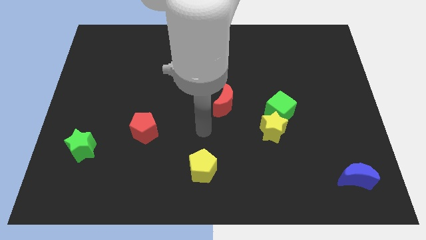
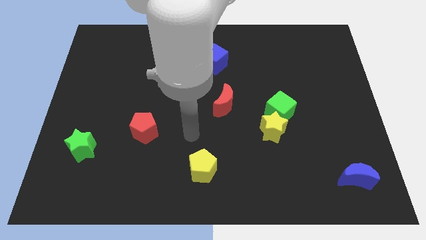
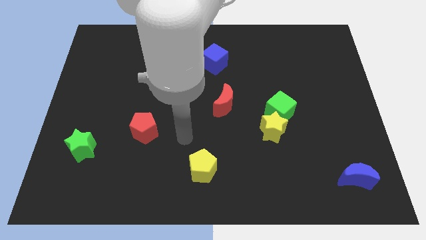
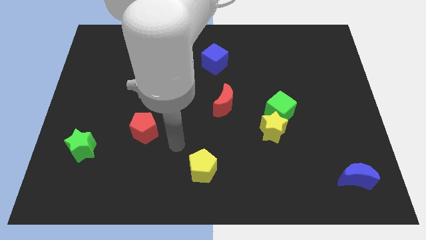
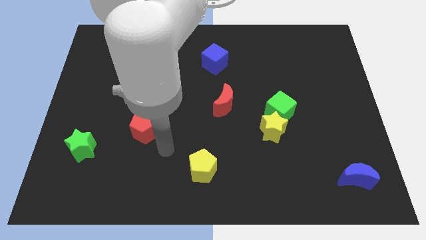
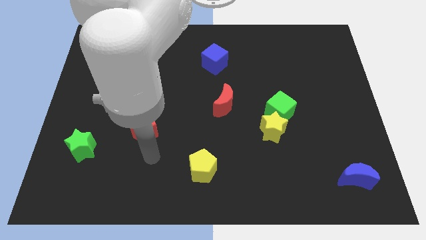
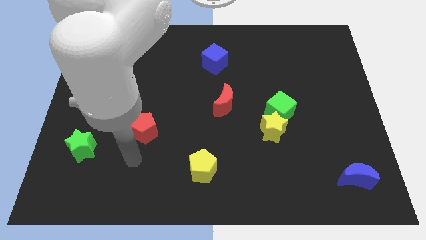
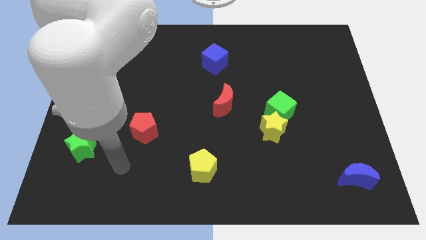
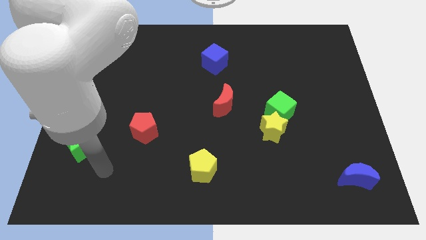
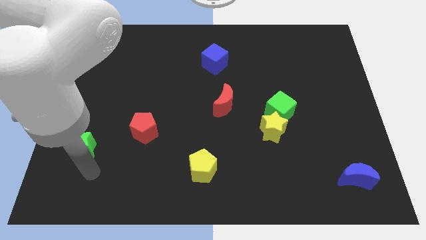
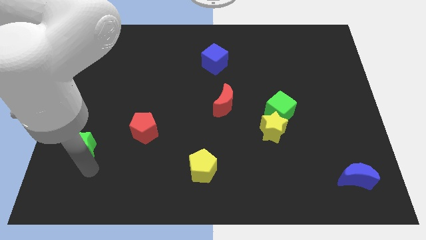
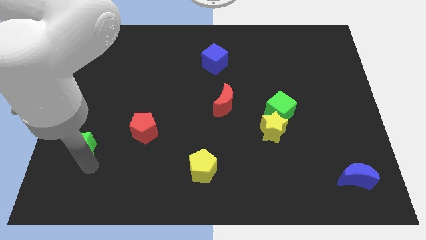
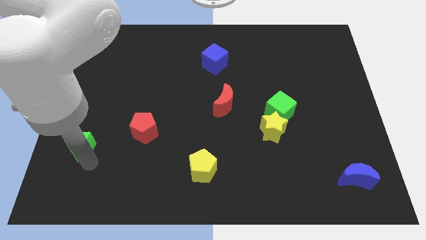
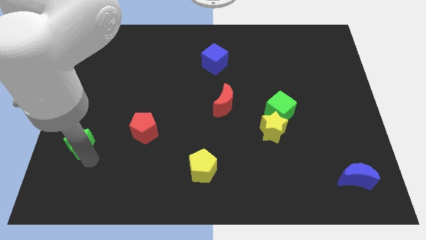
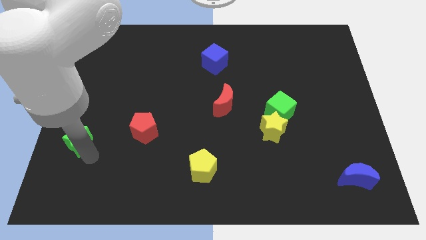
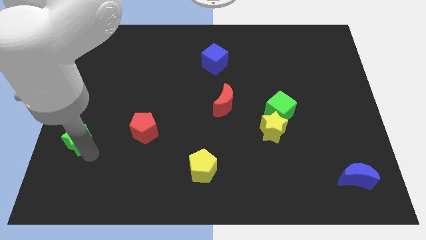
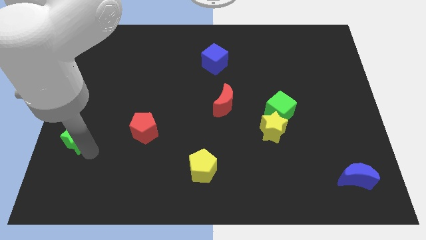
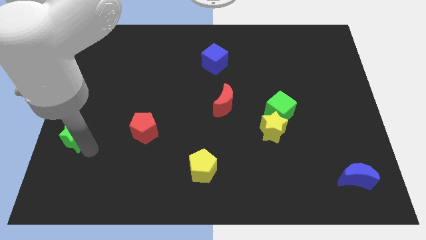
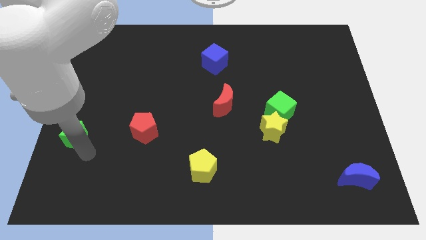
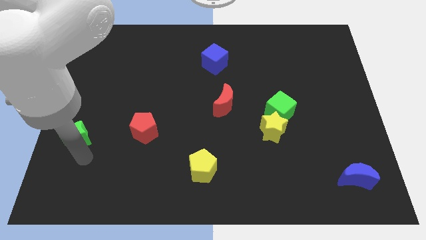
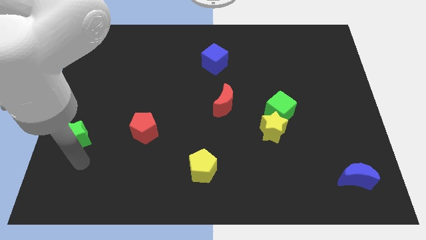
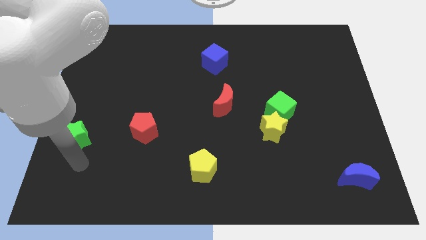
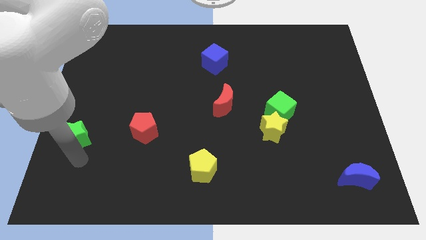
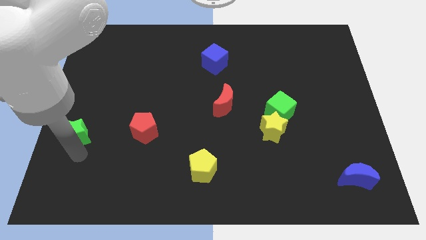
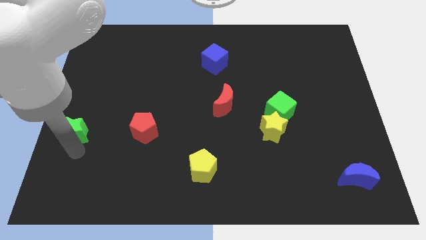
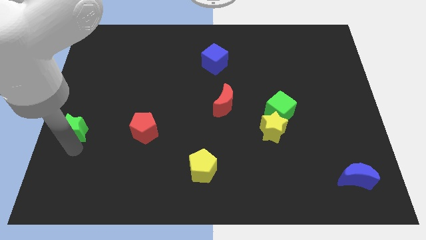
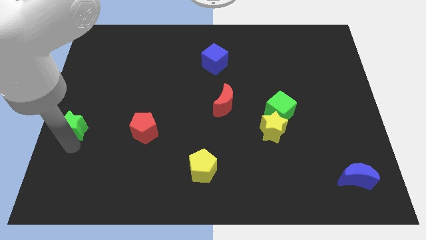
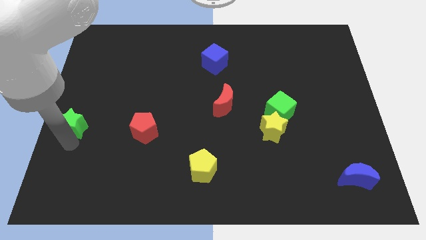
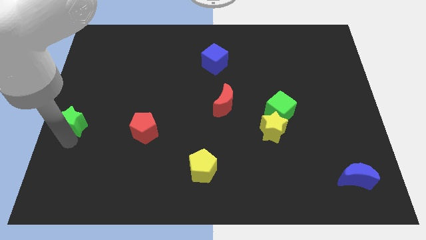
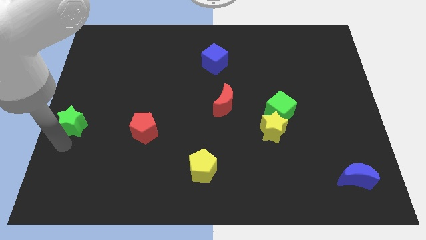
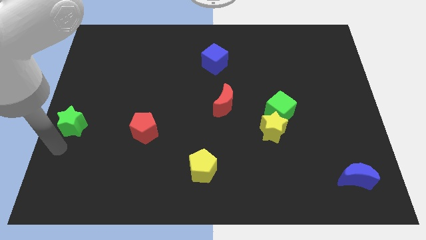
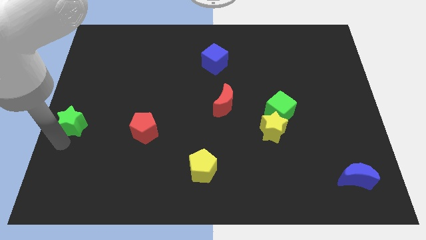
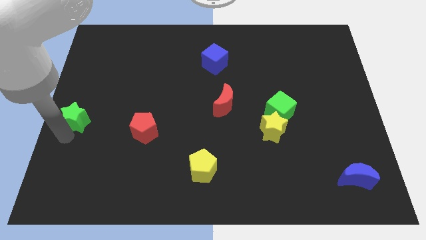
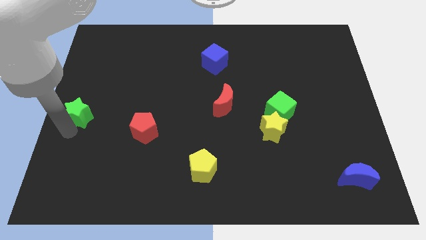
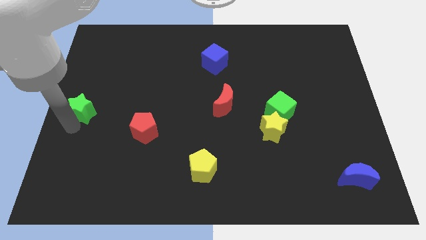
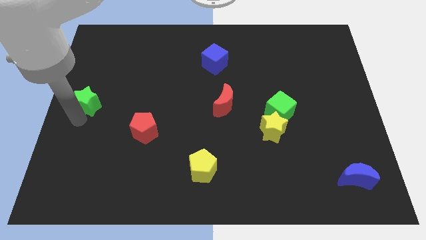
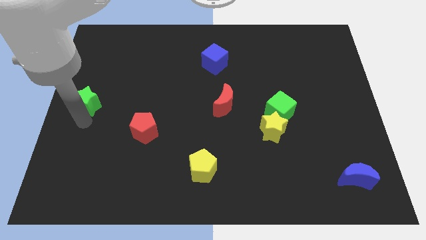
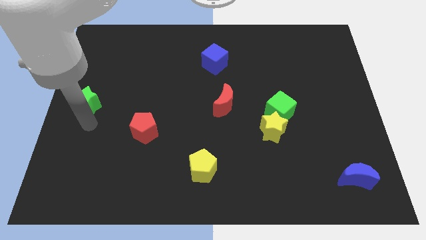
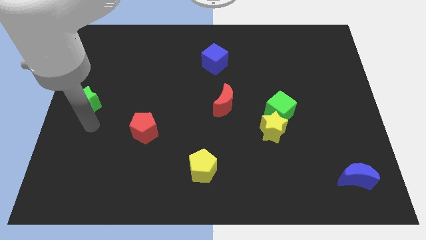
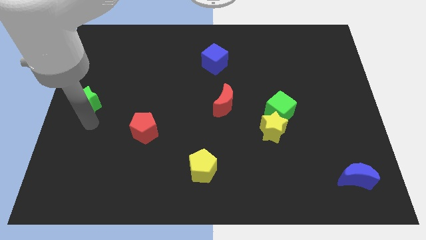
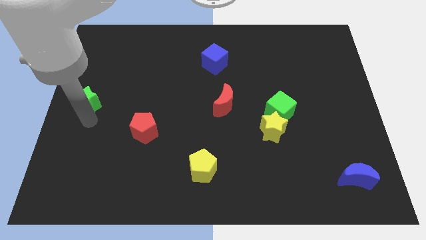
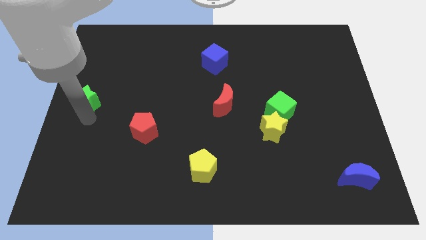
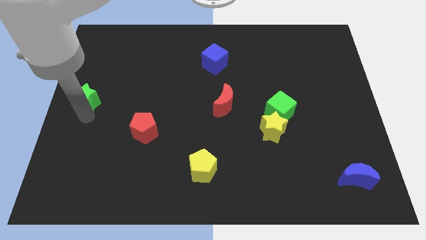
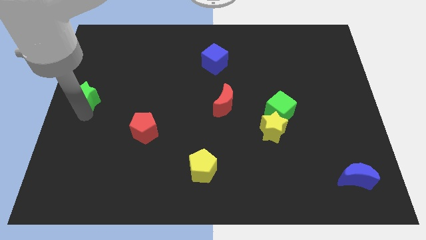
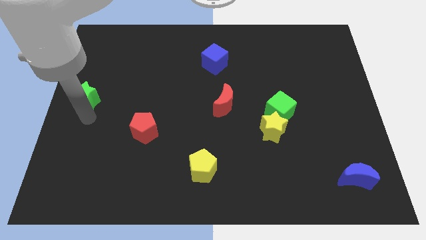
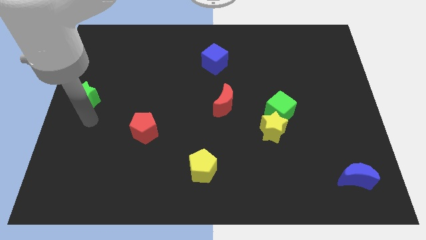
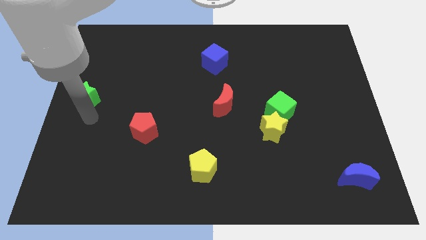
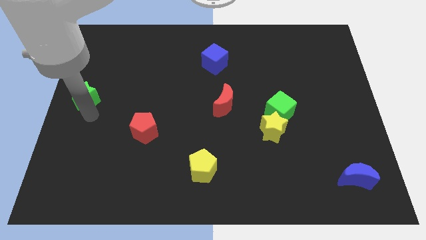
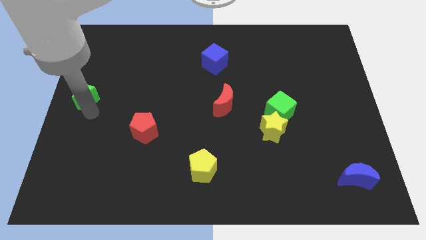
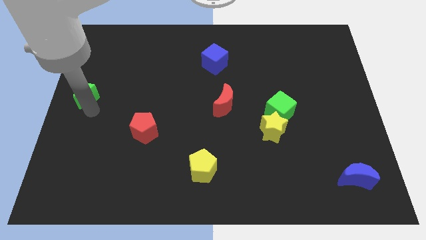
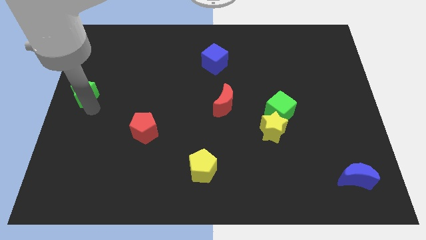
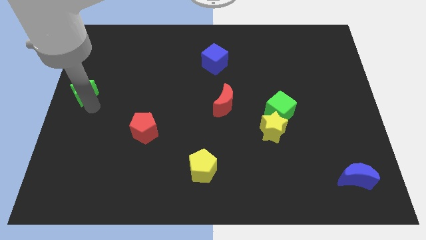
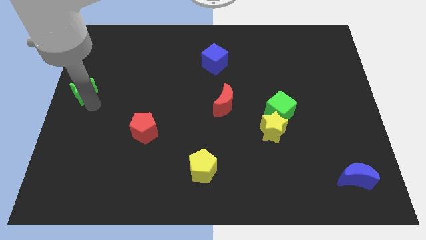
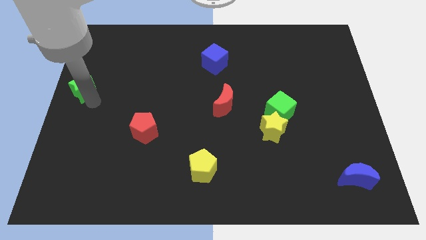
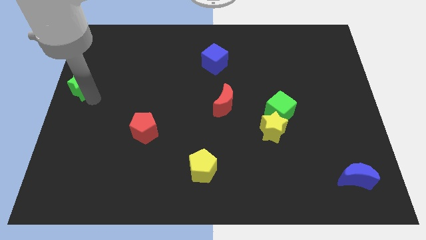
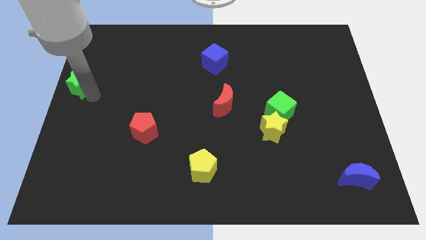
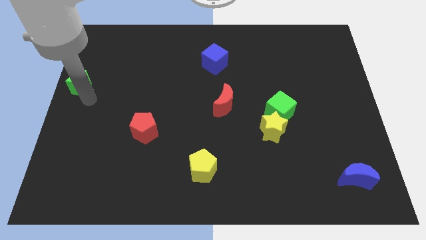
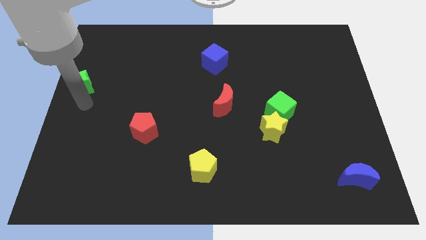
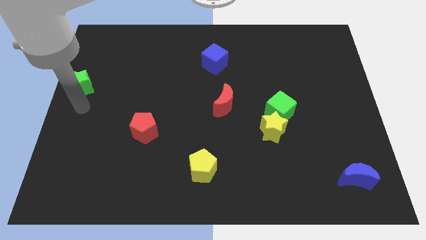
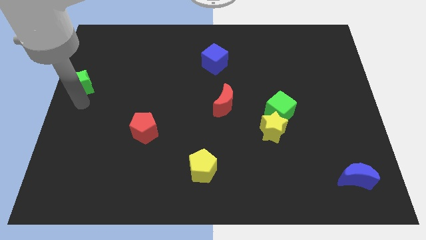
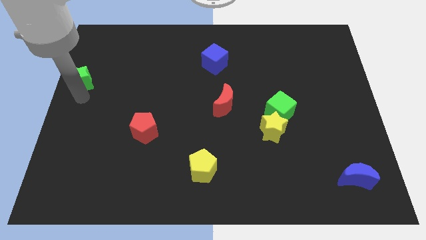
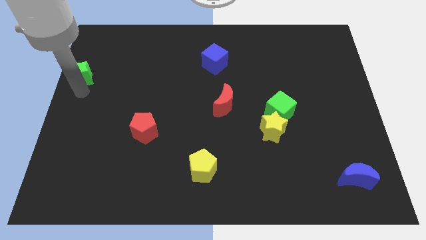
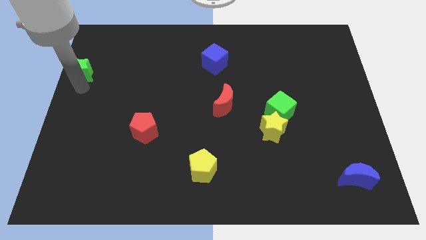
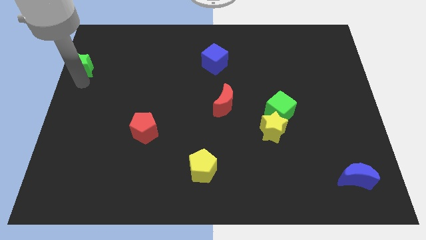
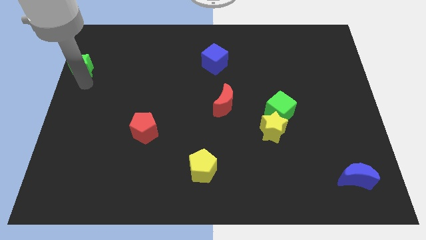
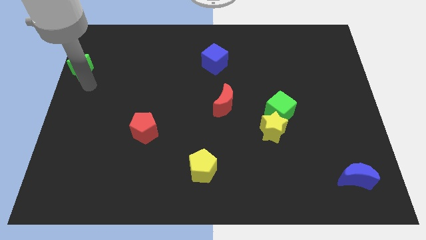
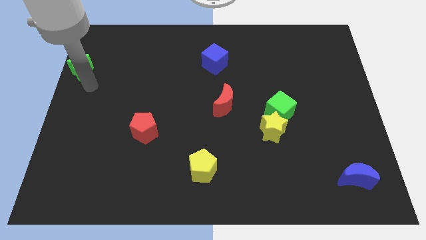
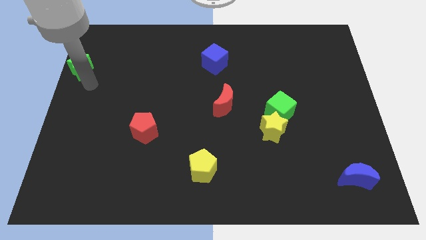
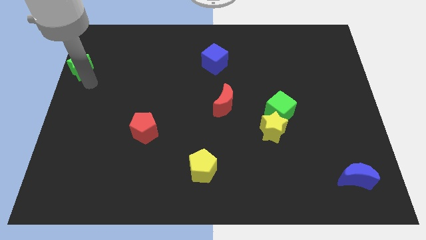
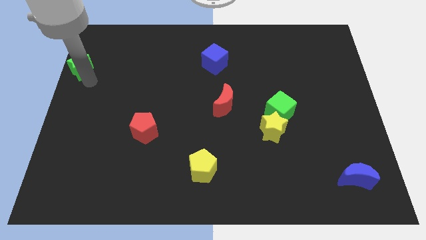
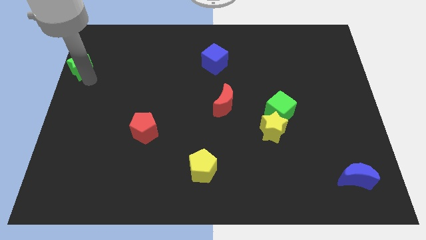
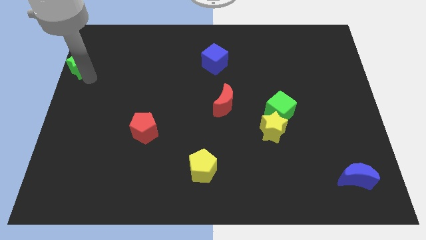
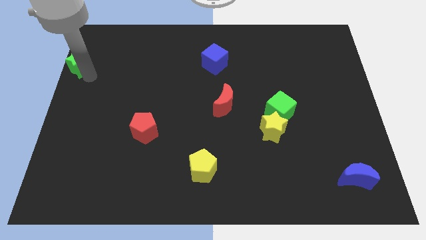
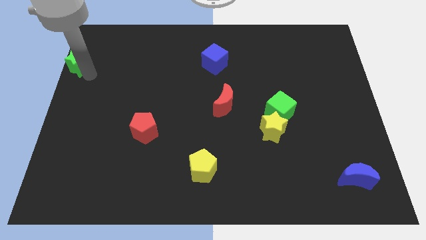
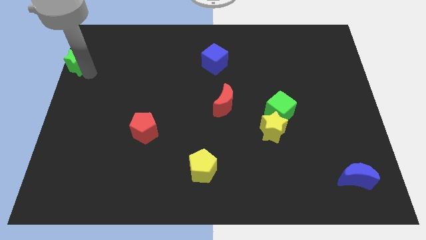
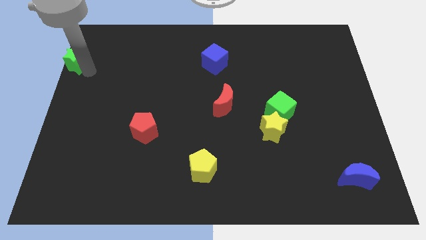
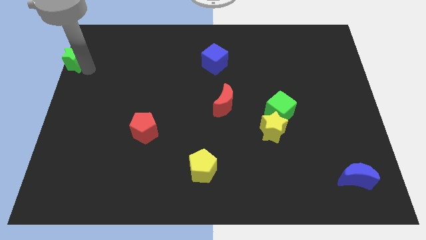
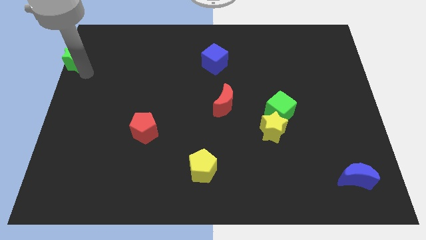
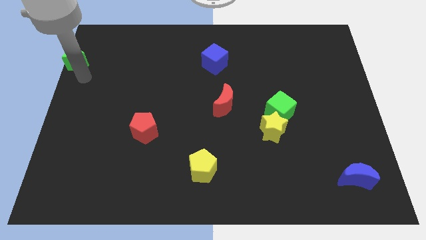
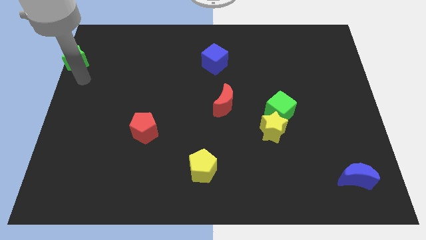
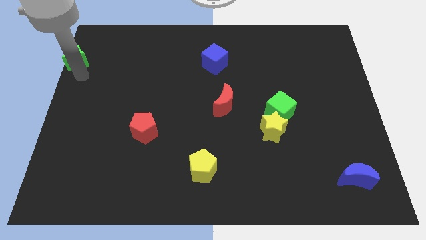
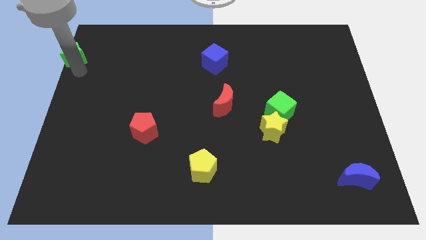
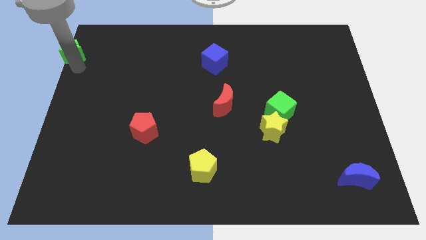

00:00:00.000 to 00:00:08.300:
put the green star to the top left of the board
